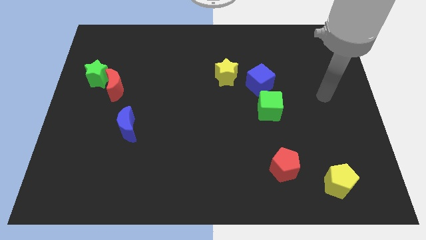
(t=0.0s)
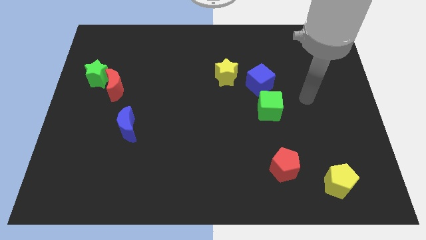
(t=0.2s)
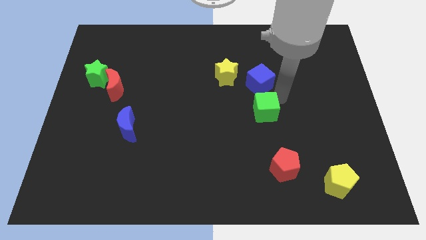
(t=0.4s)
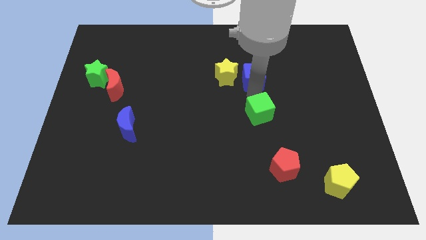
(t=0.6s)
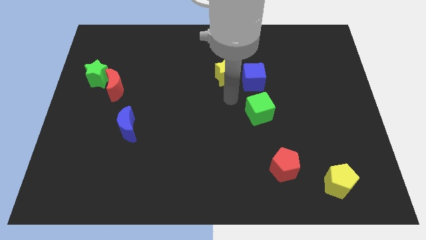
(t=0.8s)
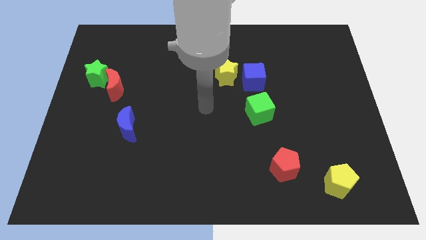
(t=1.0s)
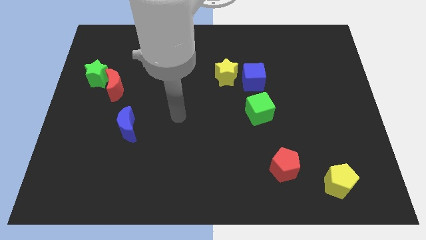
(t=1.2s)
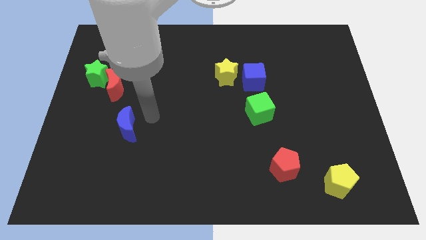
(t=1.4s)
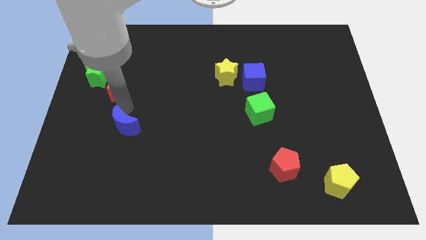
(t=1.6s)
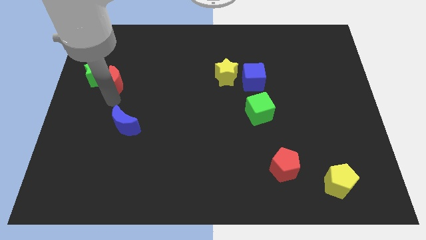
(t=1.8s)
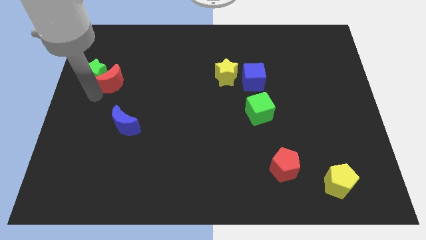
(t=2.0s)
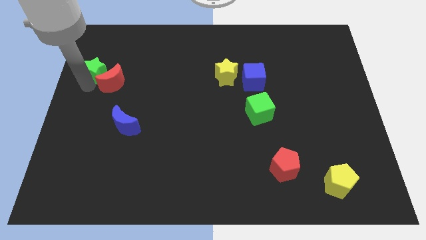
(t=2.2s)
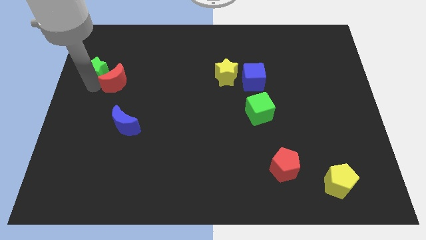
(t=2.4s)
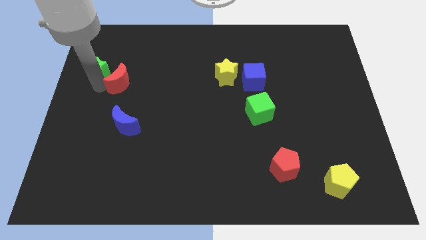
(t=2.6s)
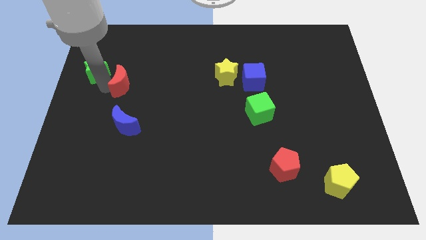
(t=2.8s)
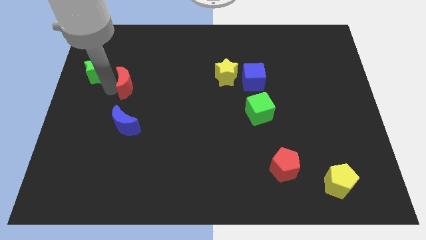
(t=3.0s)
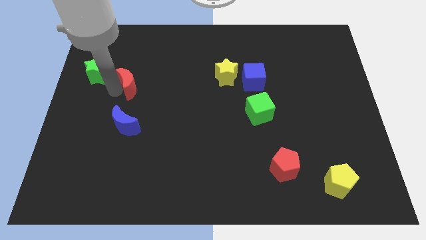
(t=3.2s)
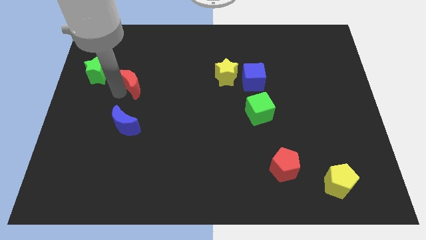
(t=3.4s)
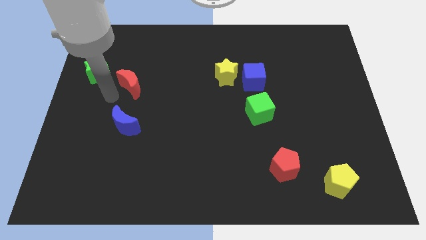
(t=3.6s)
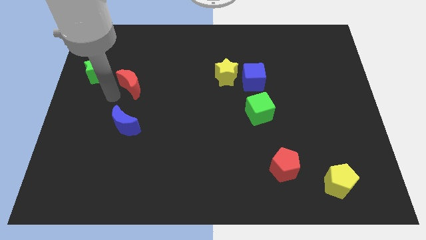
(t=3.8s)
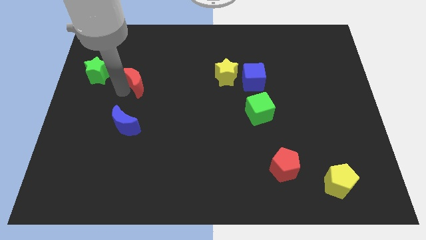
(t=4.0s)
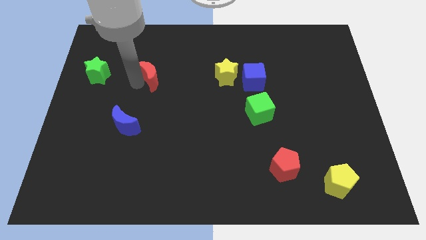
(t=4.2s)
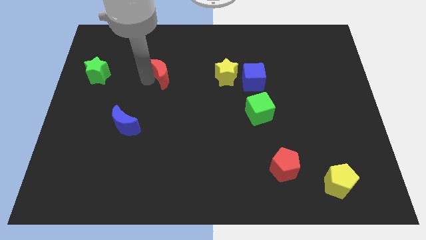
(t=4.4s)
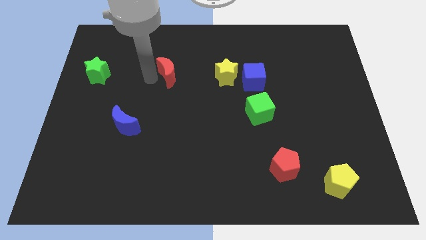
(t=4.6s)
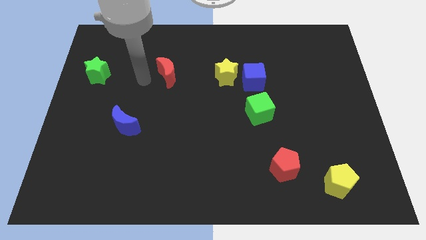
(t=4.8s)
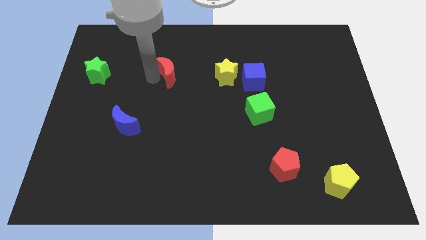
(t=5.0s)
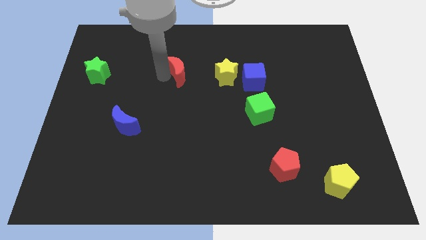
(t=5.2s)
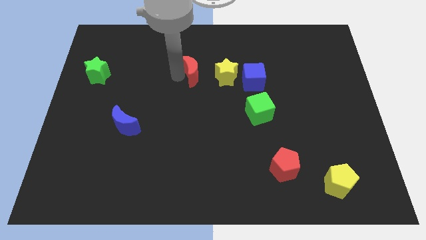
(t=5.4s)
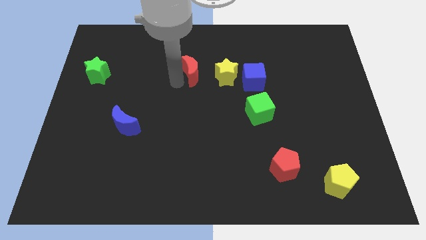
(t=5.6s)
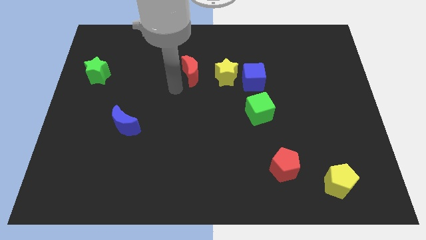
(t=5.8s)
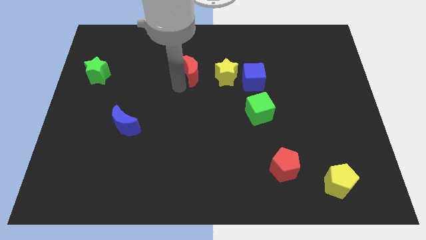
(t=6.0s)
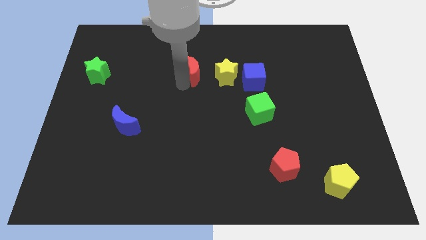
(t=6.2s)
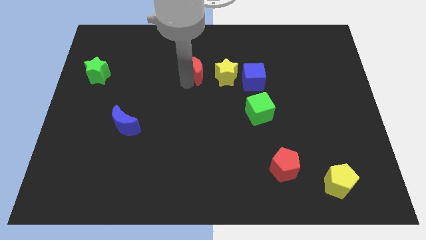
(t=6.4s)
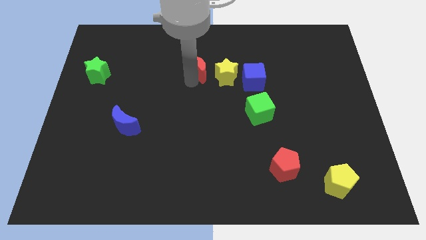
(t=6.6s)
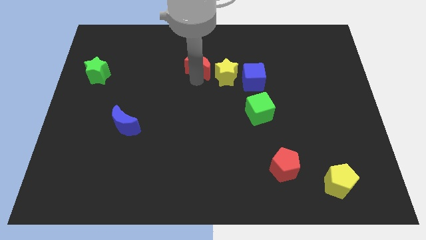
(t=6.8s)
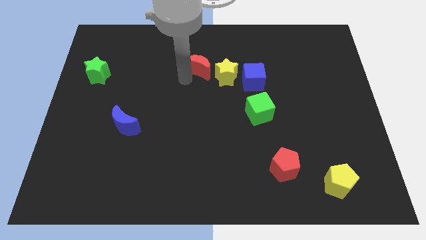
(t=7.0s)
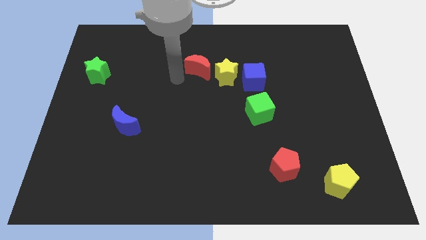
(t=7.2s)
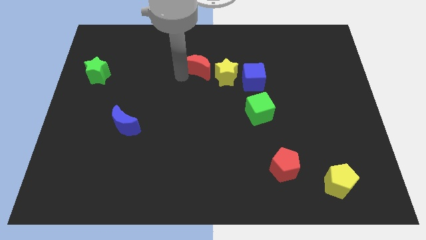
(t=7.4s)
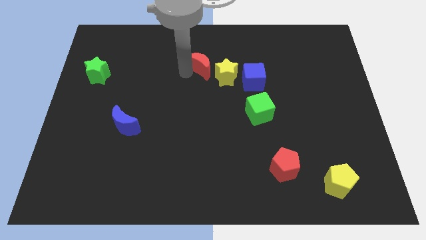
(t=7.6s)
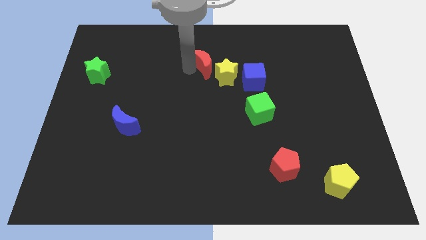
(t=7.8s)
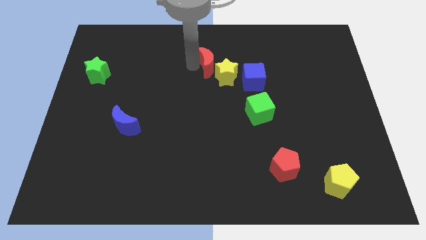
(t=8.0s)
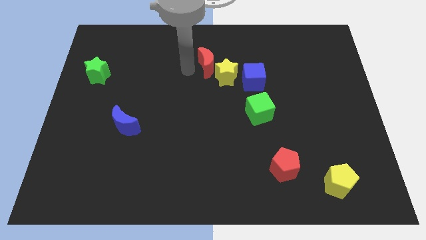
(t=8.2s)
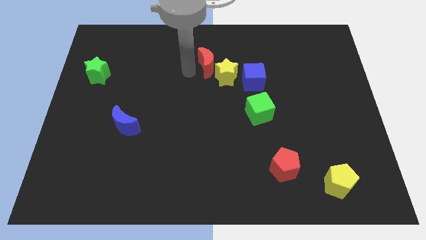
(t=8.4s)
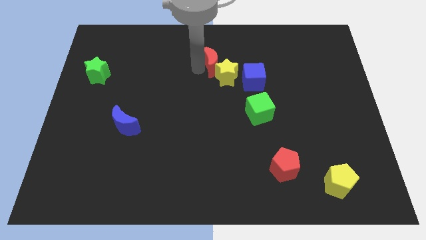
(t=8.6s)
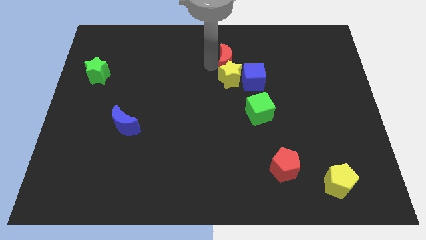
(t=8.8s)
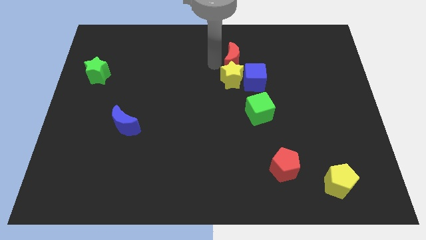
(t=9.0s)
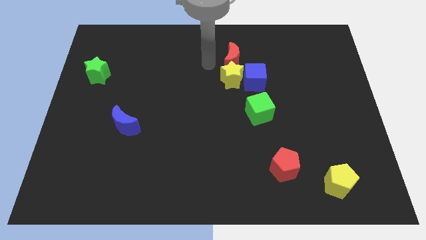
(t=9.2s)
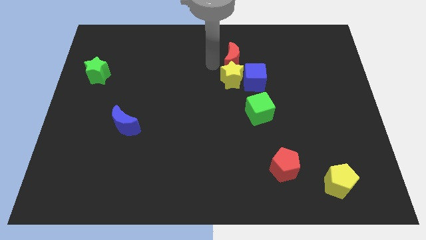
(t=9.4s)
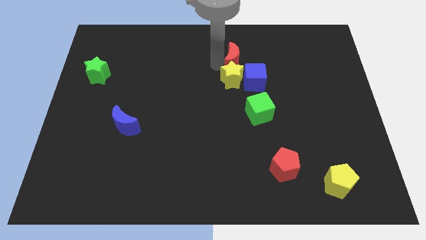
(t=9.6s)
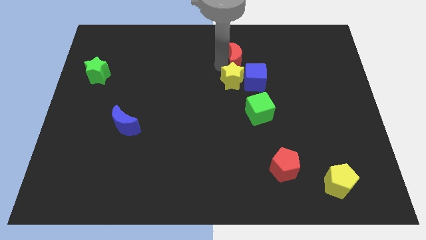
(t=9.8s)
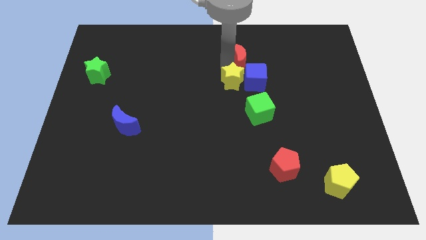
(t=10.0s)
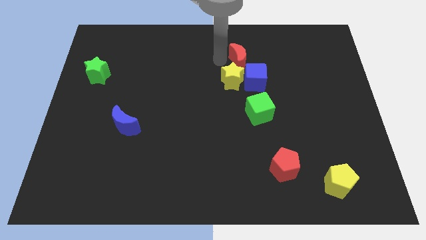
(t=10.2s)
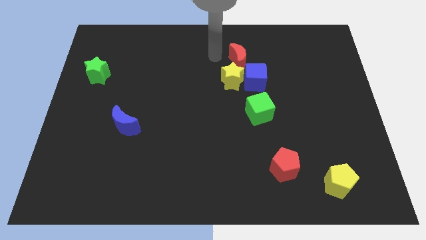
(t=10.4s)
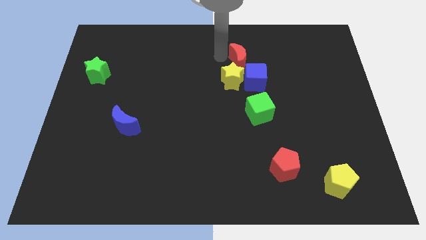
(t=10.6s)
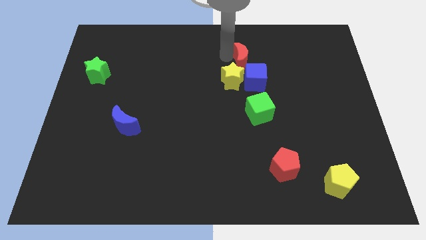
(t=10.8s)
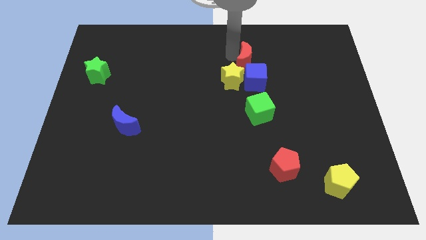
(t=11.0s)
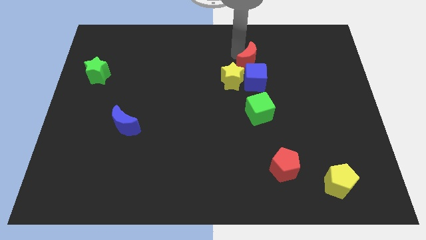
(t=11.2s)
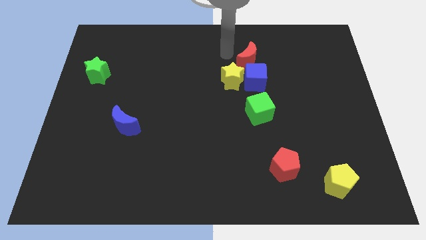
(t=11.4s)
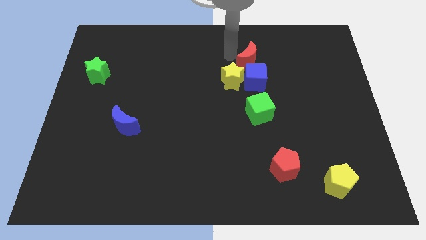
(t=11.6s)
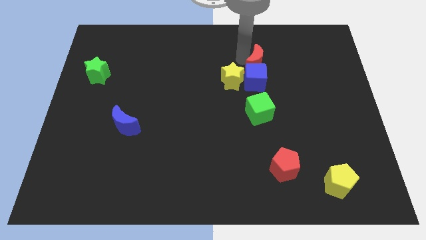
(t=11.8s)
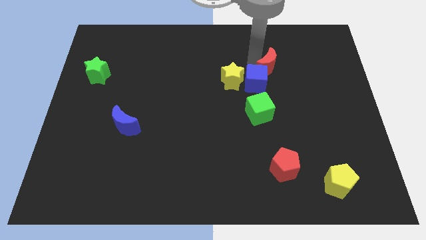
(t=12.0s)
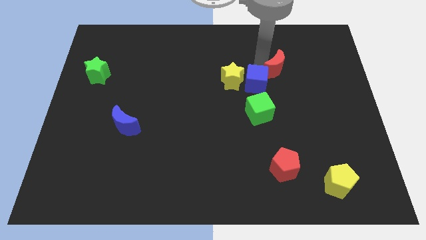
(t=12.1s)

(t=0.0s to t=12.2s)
slide the red moon right of the blue cube
